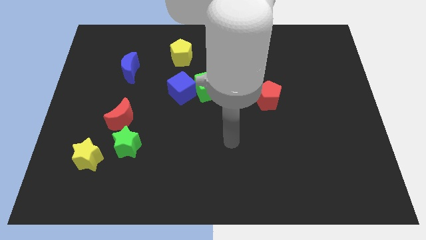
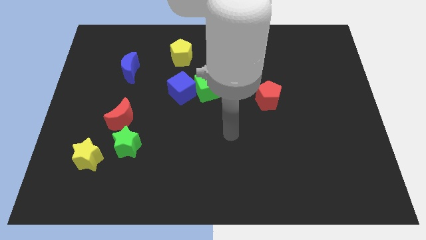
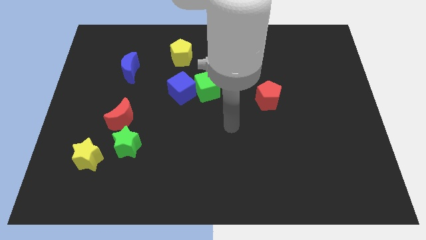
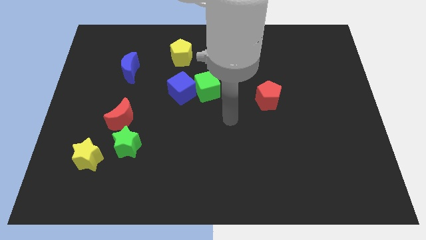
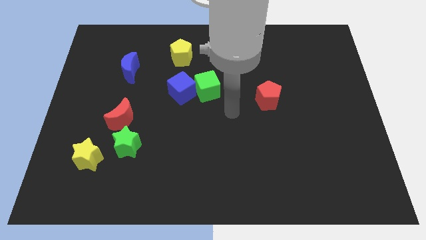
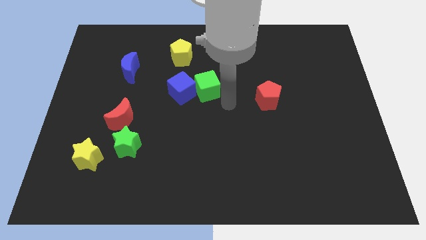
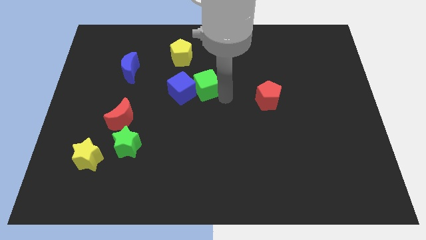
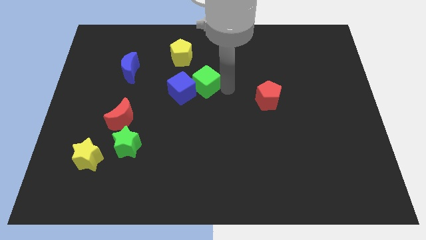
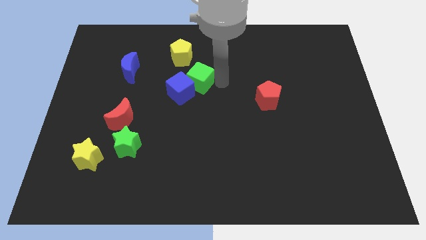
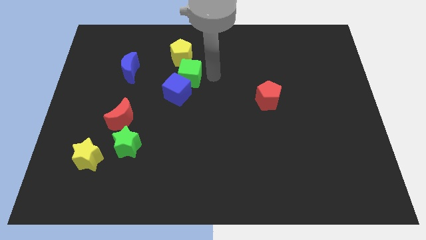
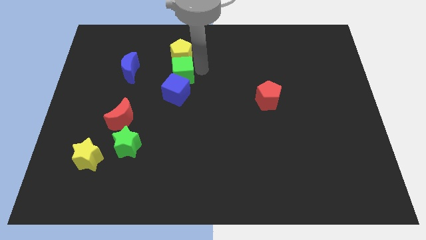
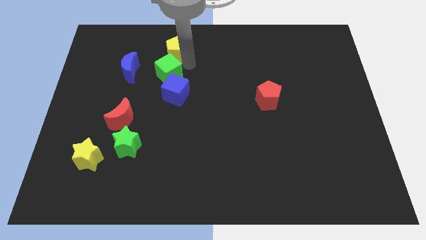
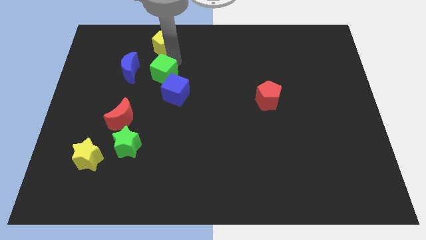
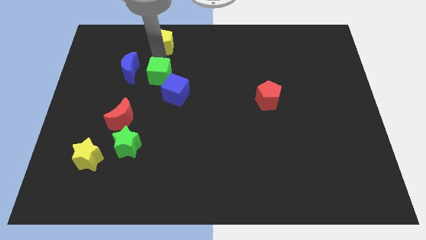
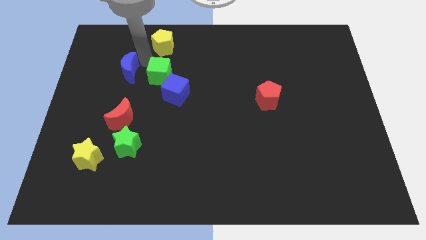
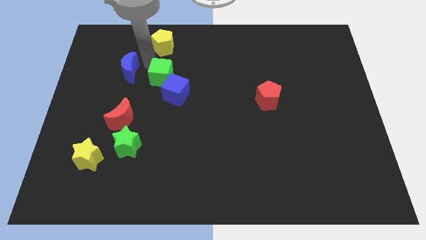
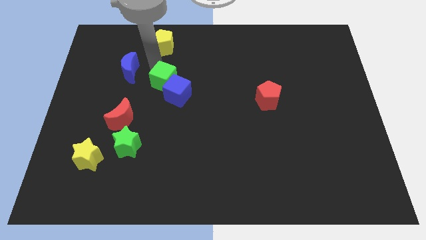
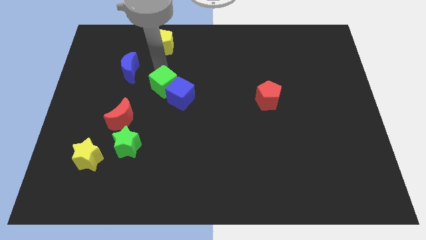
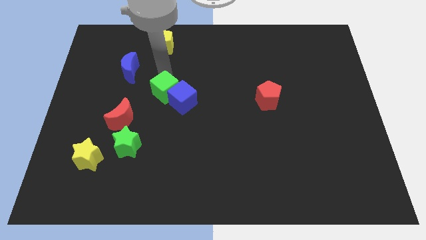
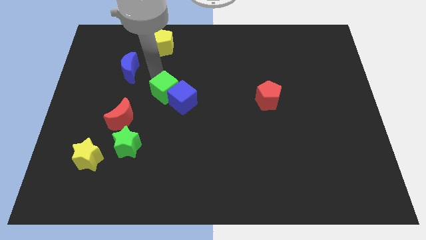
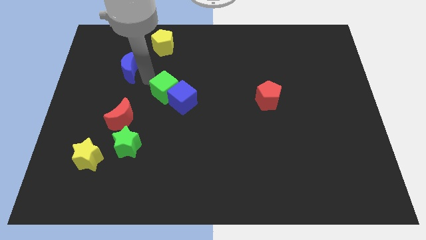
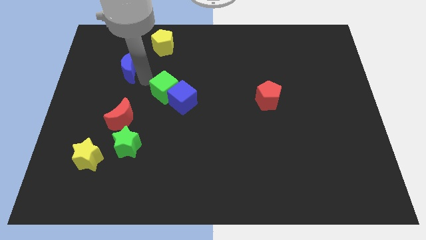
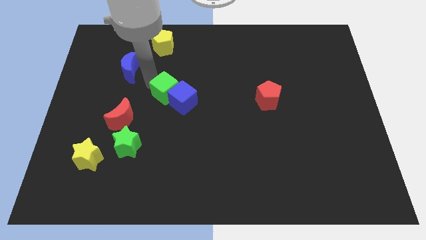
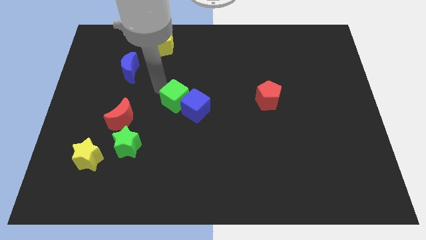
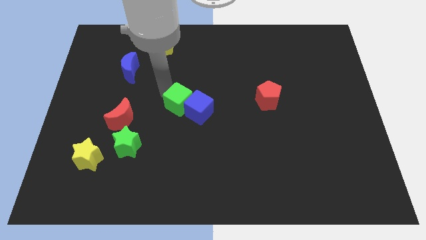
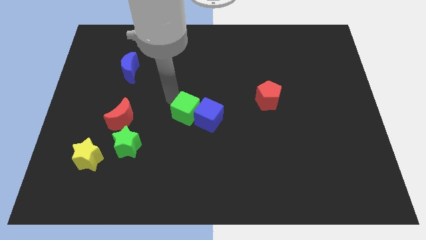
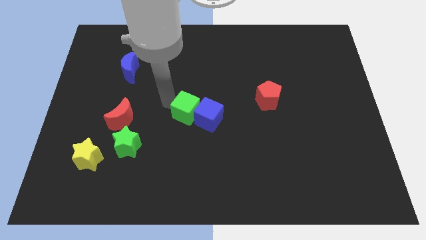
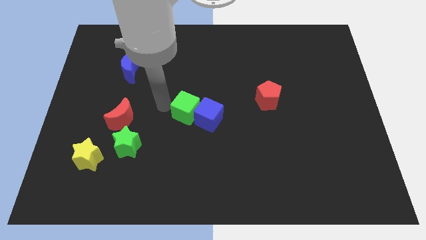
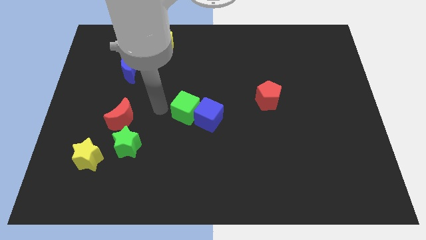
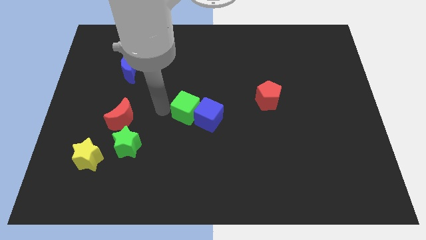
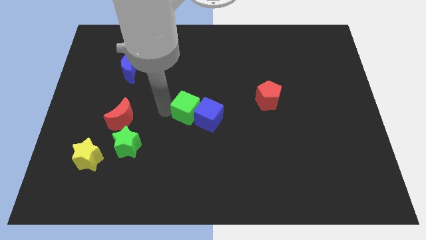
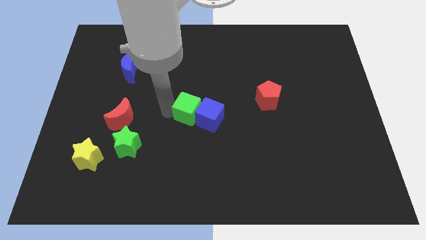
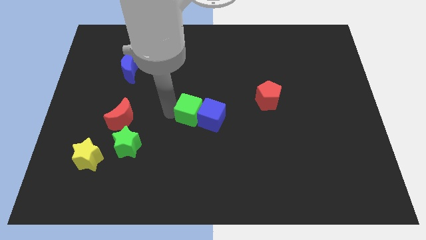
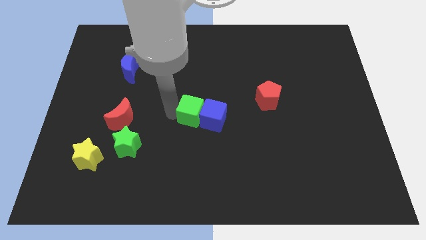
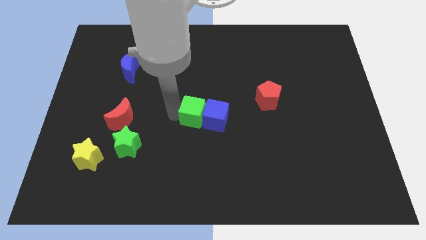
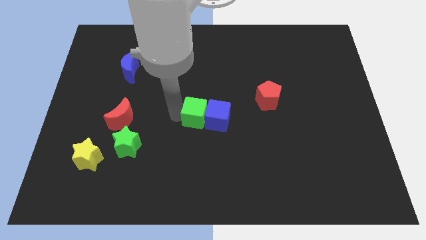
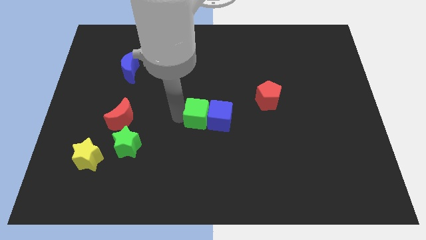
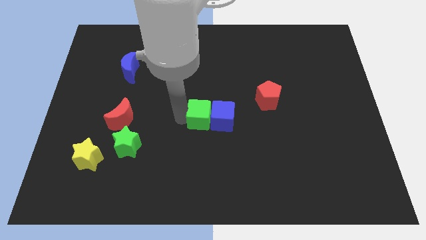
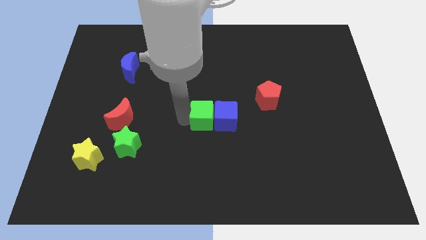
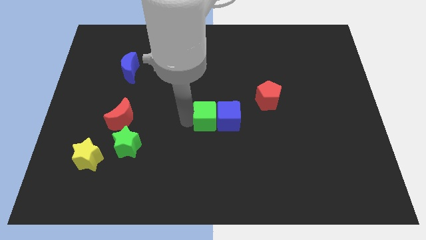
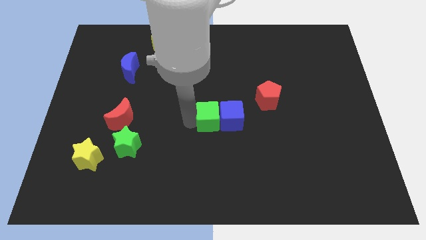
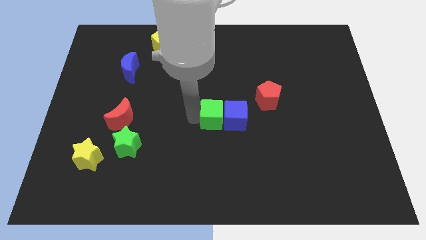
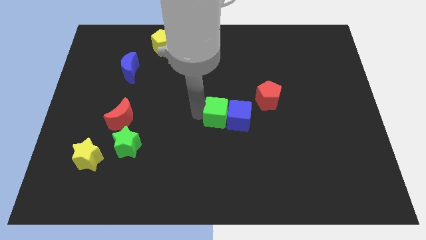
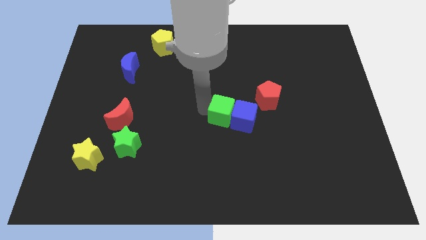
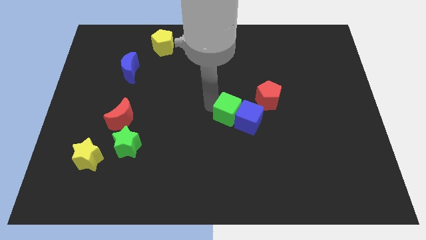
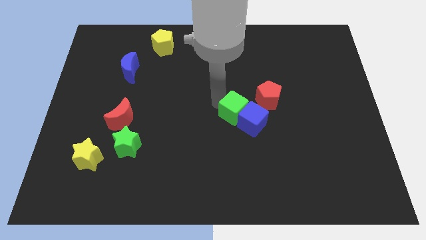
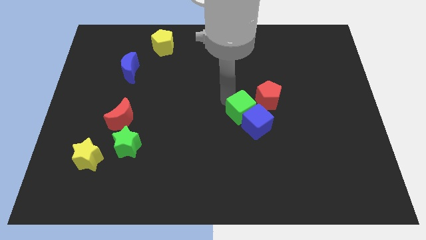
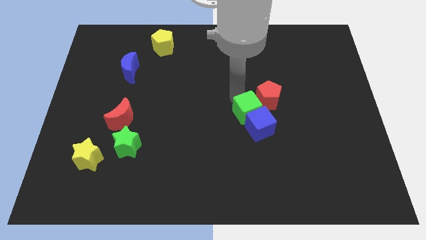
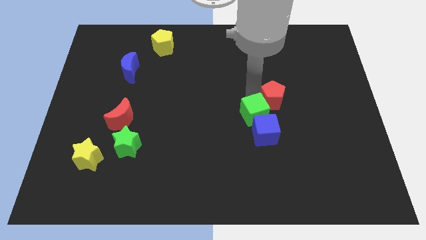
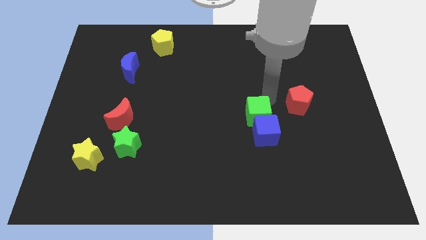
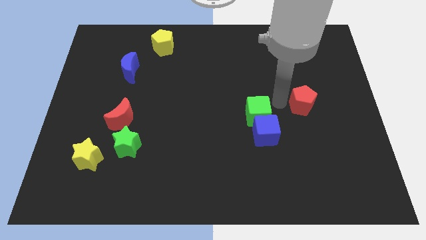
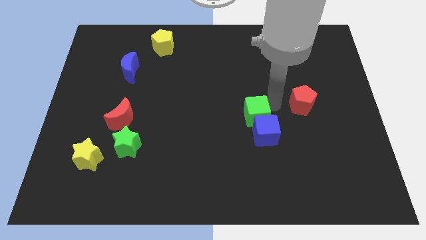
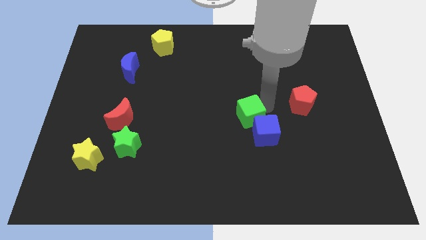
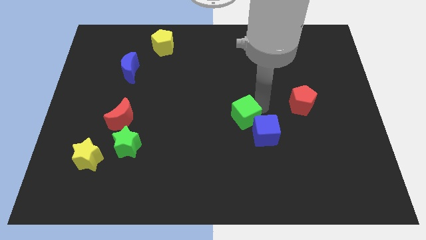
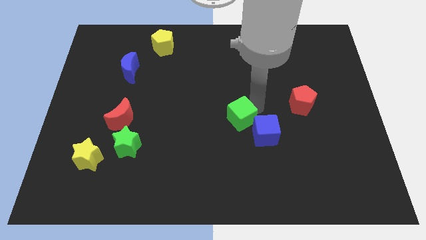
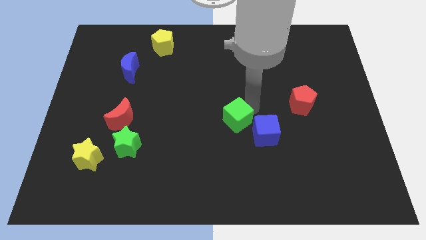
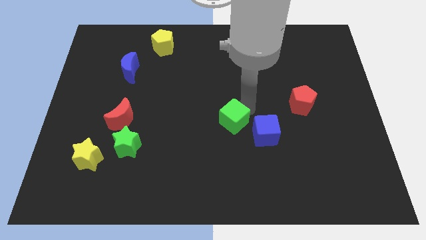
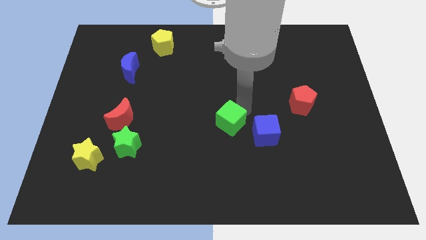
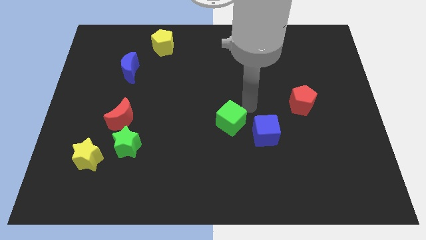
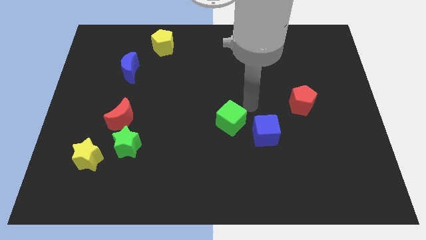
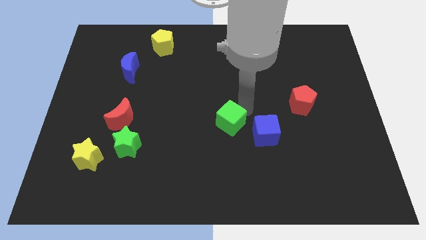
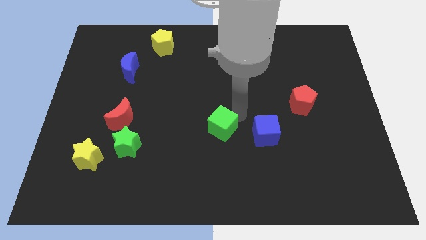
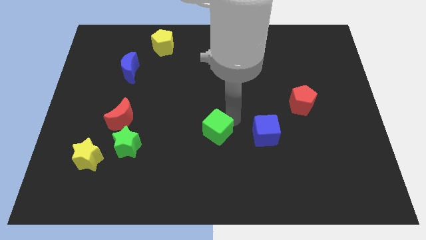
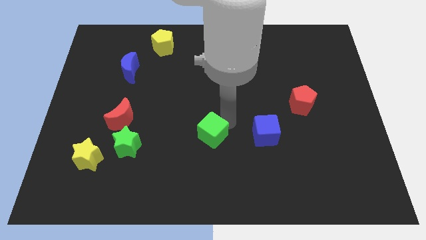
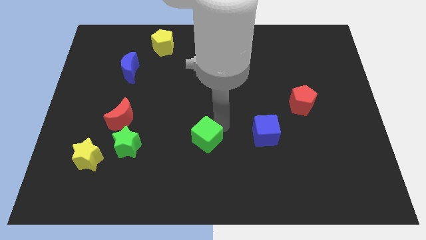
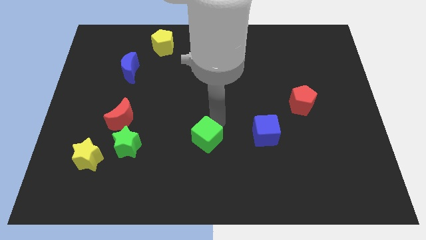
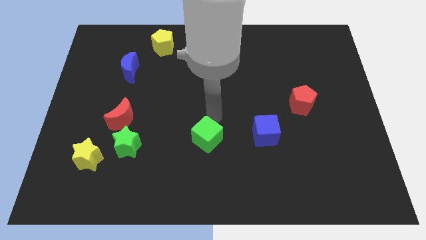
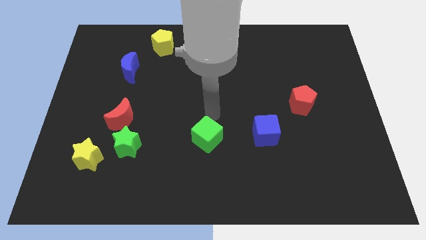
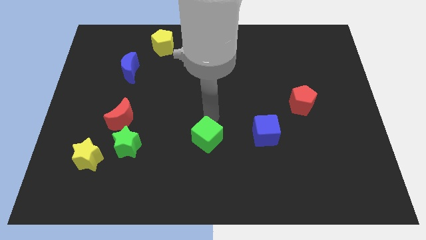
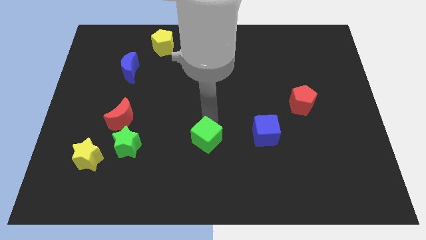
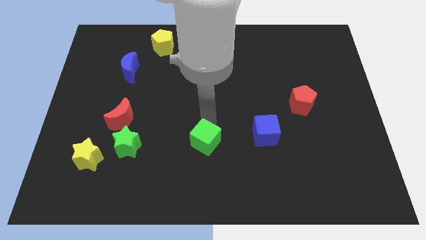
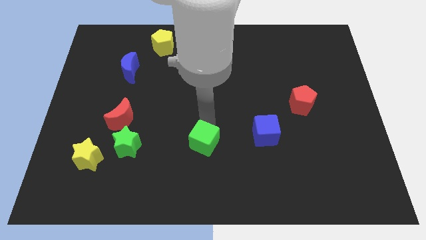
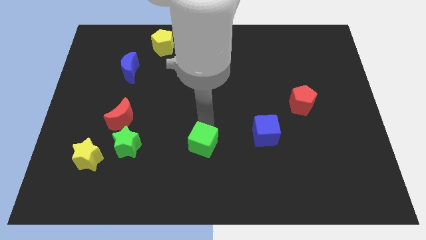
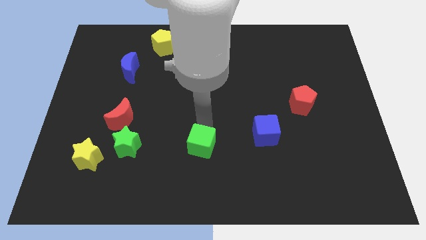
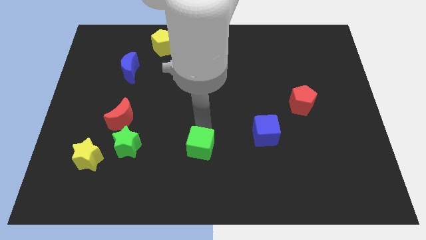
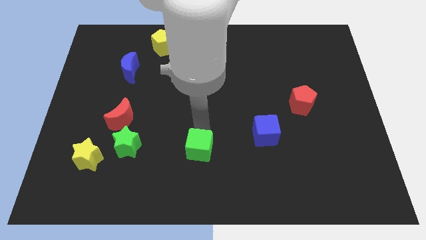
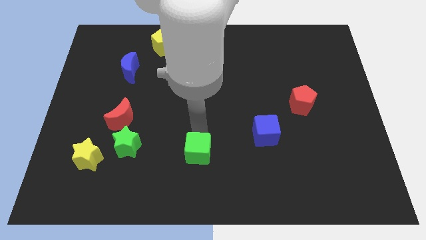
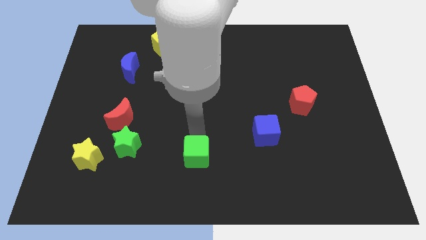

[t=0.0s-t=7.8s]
slide the green cube to the bottom side
